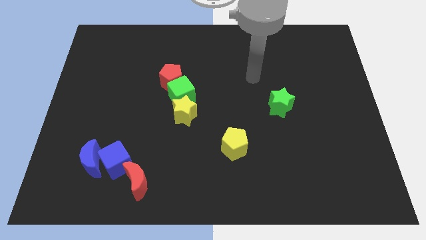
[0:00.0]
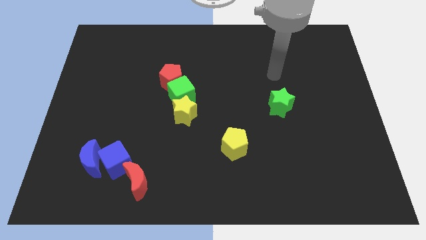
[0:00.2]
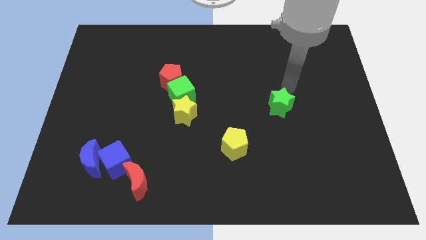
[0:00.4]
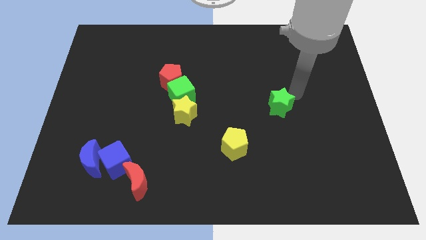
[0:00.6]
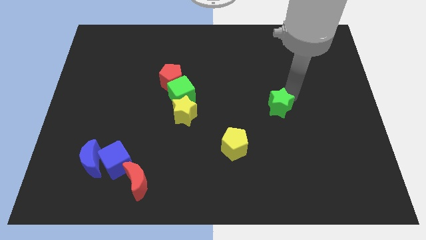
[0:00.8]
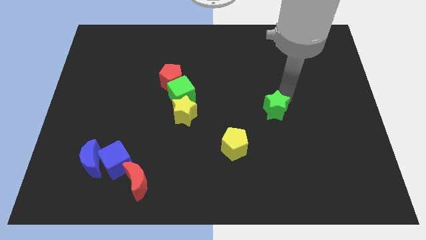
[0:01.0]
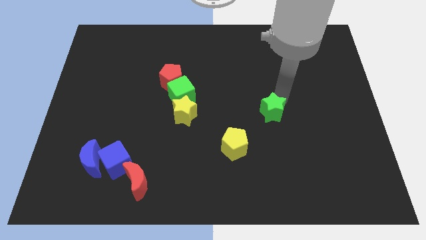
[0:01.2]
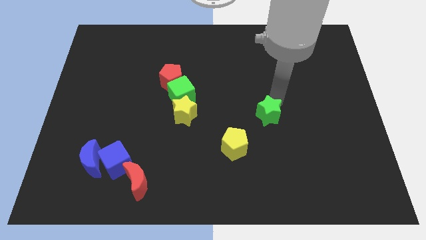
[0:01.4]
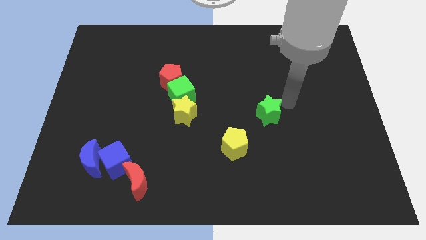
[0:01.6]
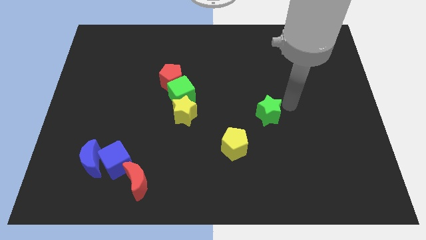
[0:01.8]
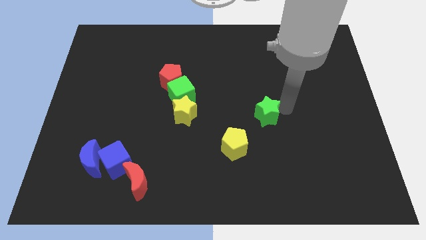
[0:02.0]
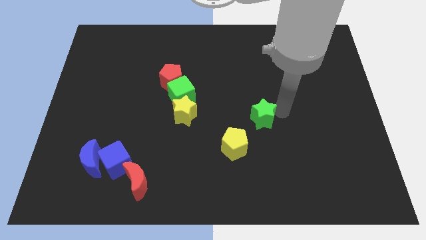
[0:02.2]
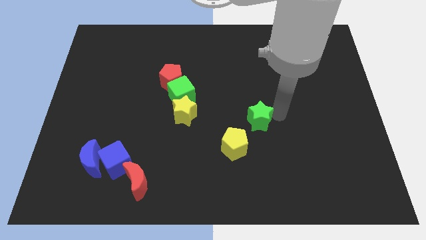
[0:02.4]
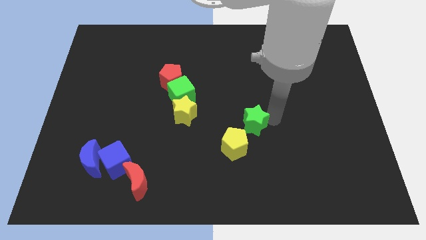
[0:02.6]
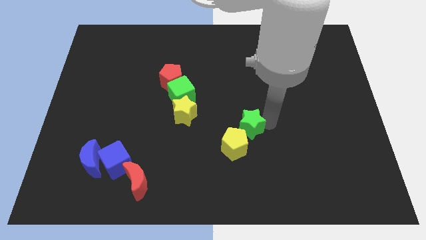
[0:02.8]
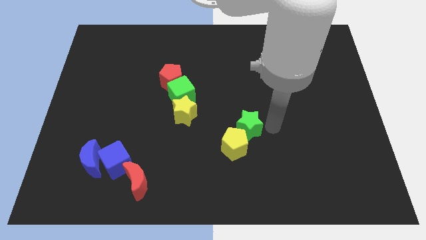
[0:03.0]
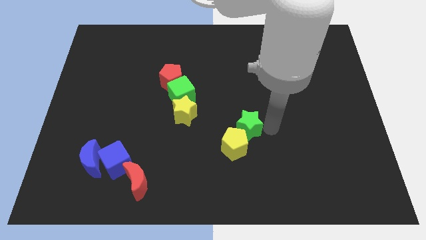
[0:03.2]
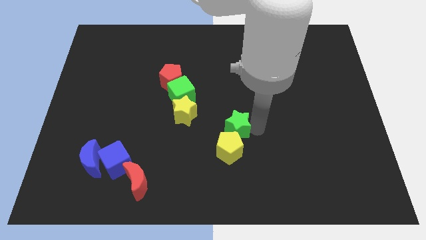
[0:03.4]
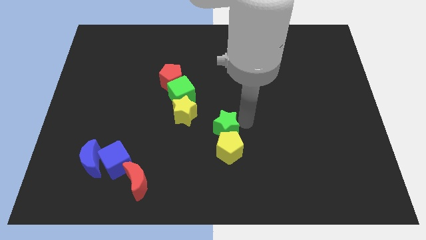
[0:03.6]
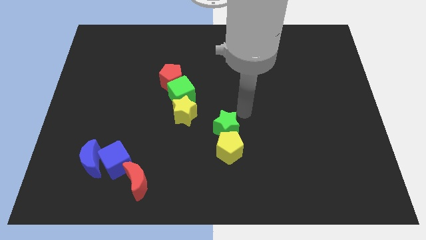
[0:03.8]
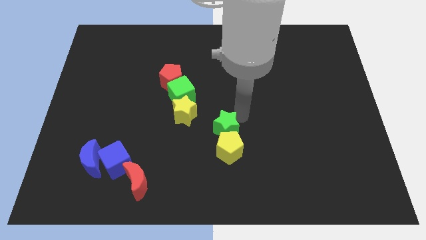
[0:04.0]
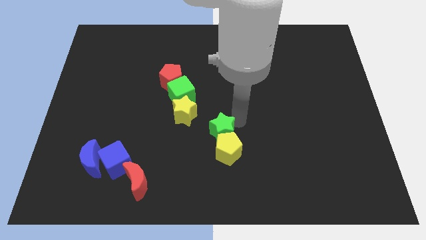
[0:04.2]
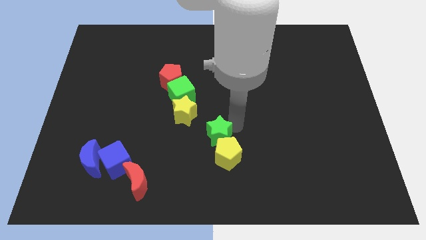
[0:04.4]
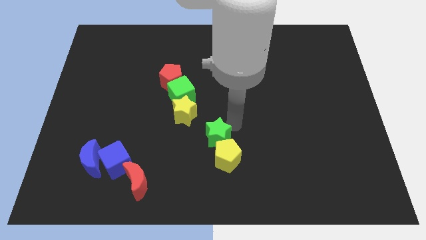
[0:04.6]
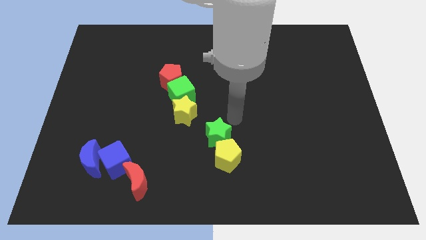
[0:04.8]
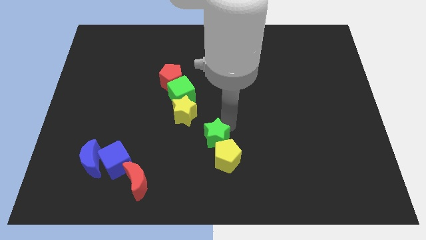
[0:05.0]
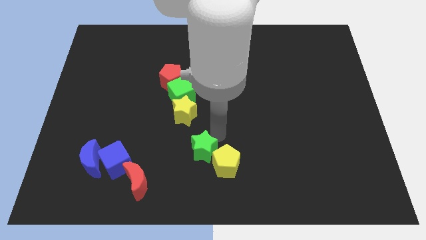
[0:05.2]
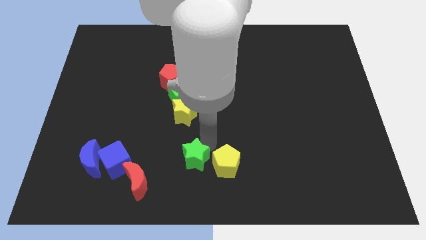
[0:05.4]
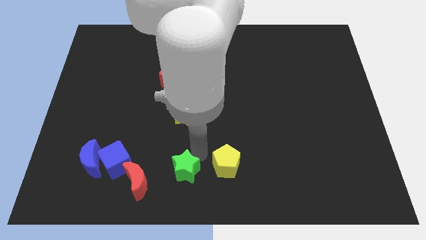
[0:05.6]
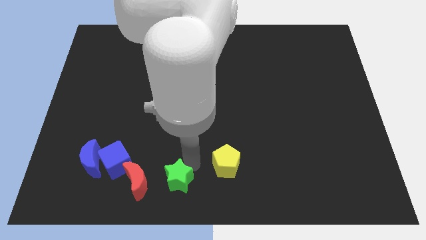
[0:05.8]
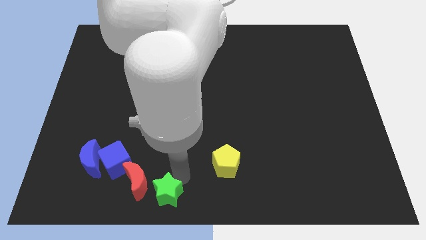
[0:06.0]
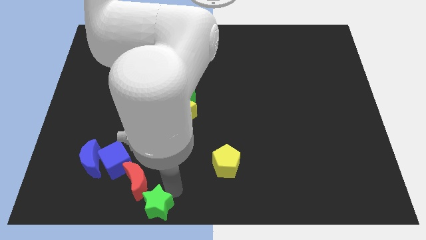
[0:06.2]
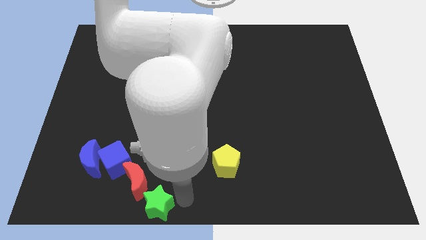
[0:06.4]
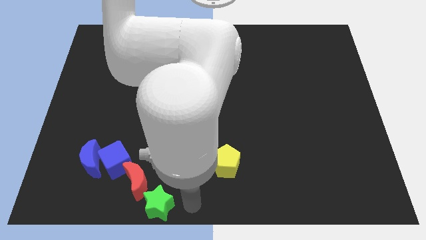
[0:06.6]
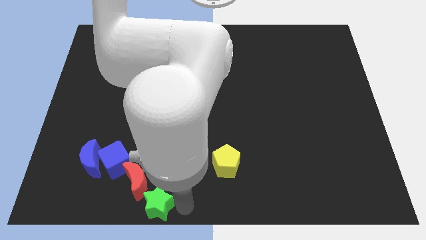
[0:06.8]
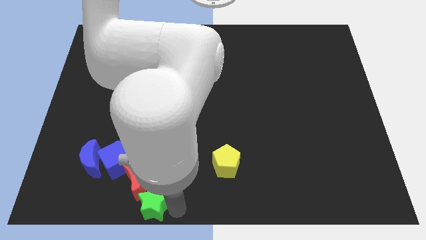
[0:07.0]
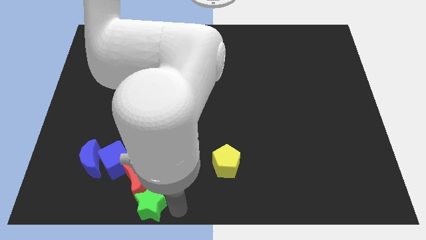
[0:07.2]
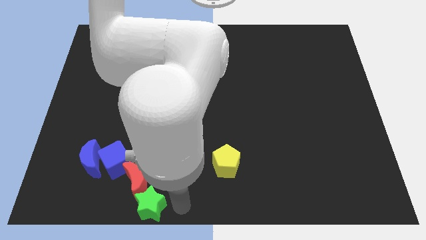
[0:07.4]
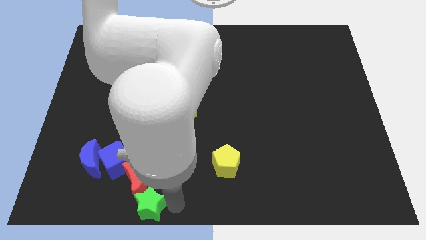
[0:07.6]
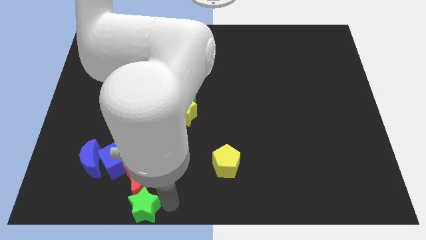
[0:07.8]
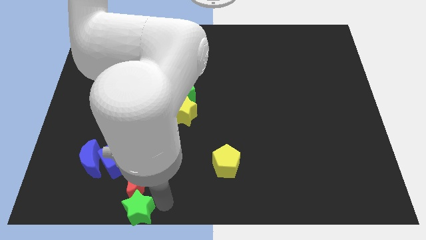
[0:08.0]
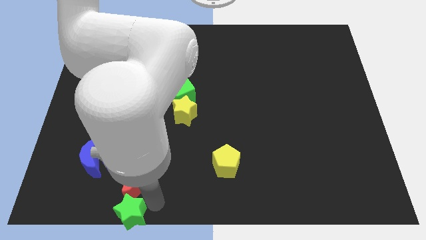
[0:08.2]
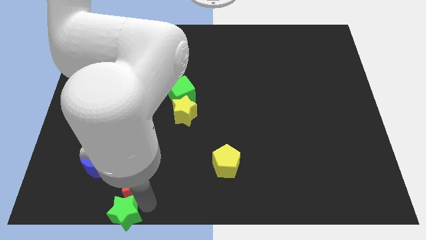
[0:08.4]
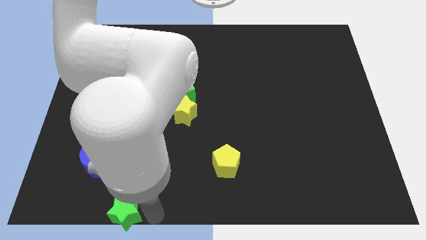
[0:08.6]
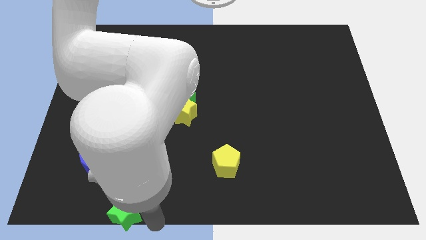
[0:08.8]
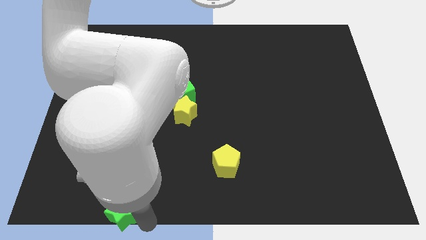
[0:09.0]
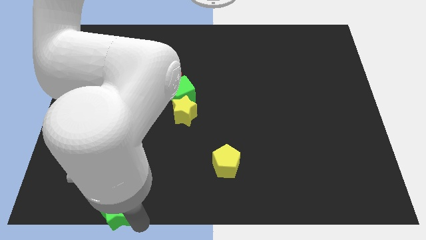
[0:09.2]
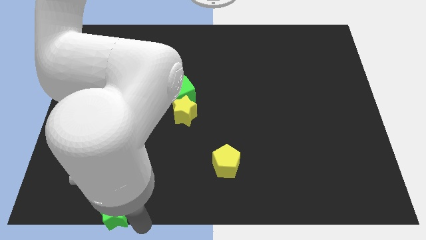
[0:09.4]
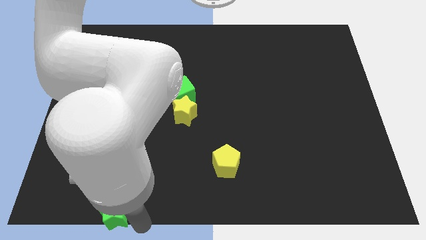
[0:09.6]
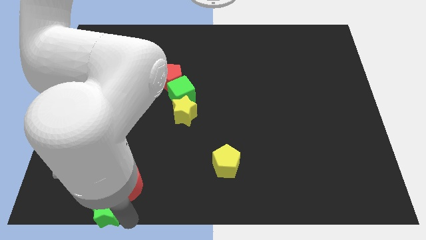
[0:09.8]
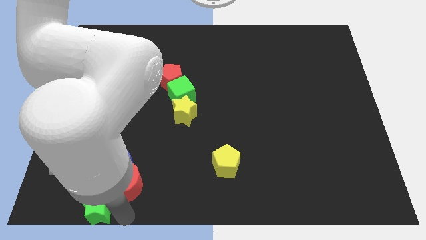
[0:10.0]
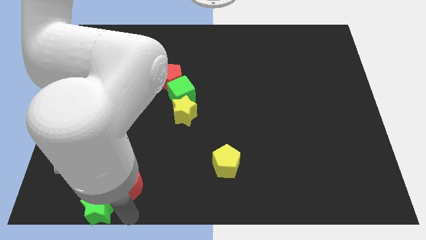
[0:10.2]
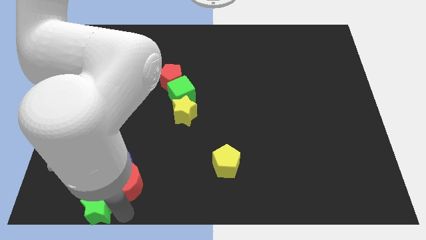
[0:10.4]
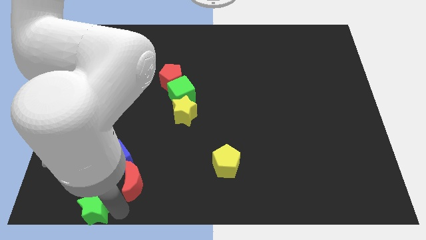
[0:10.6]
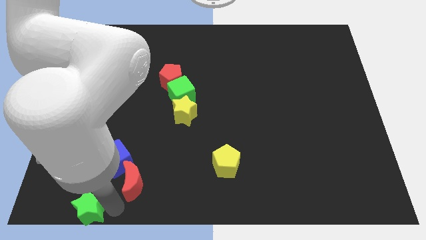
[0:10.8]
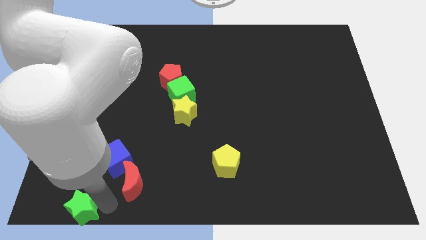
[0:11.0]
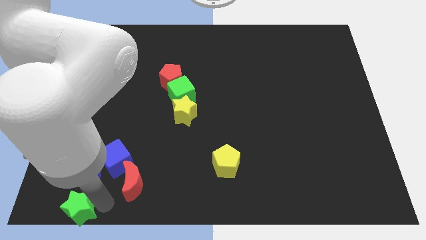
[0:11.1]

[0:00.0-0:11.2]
push the green star to the bottom left corner

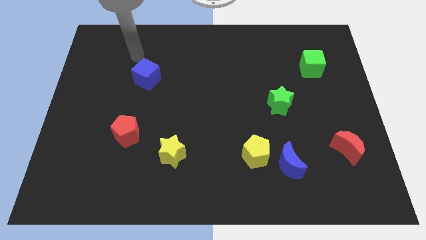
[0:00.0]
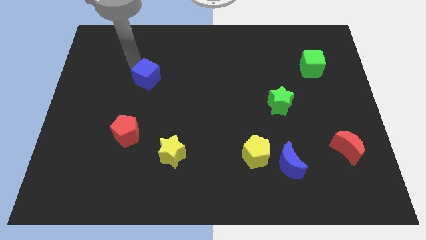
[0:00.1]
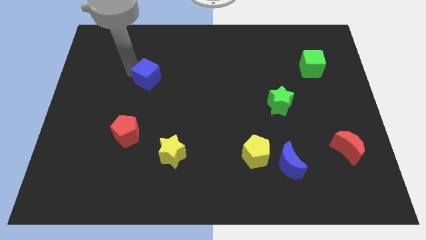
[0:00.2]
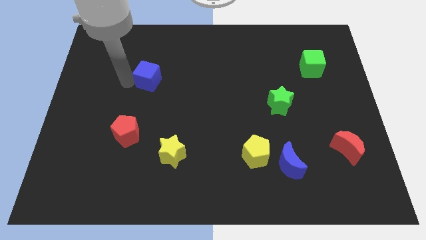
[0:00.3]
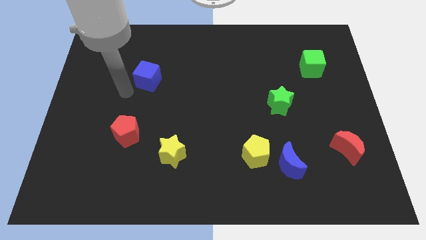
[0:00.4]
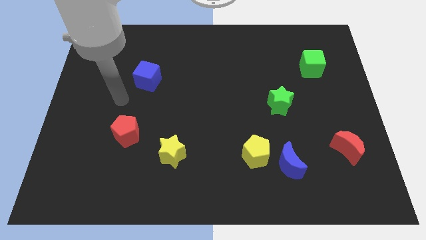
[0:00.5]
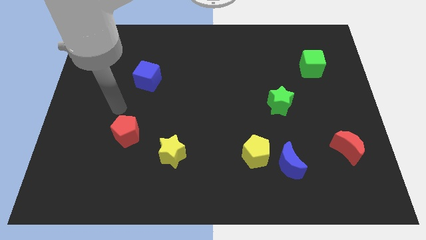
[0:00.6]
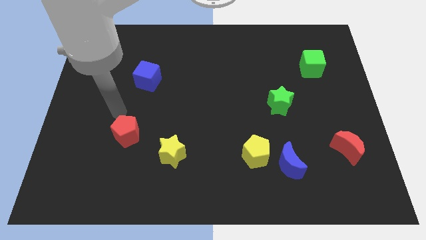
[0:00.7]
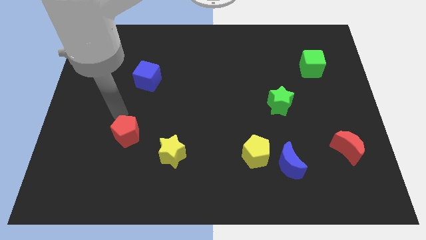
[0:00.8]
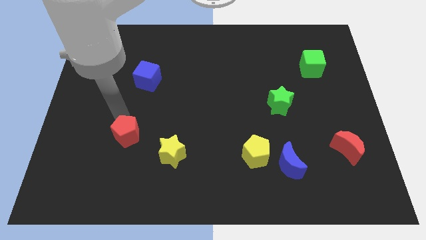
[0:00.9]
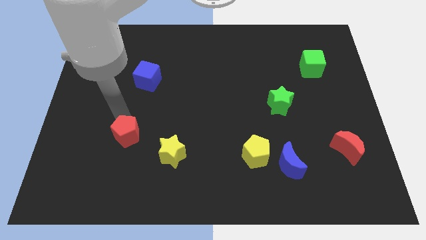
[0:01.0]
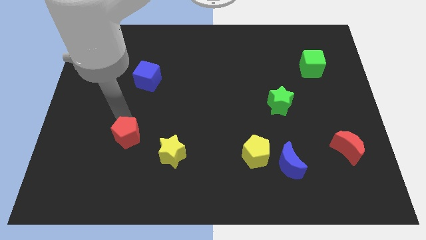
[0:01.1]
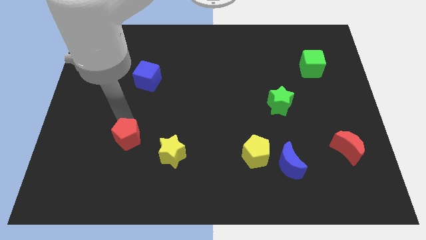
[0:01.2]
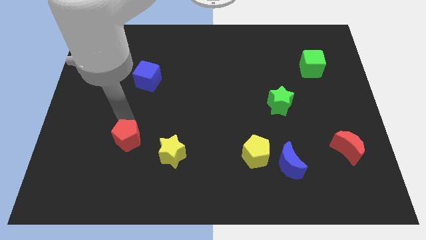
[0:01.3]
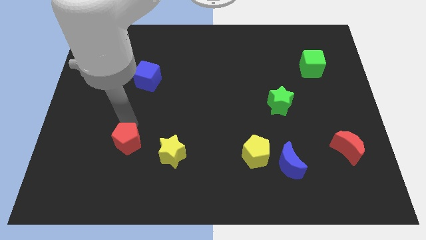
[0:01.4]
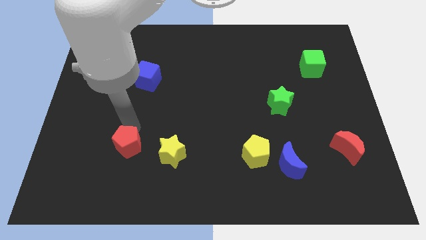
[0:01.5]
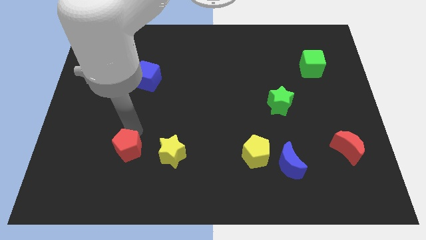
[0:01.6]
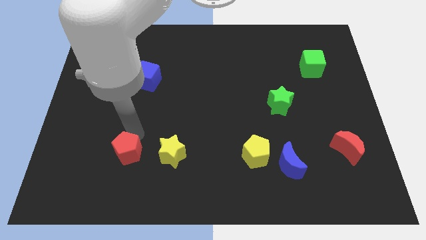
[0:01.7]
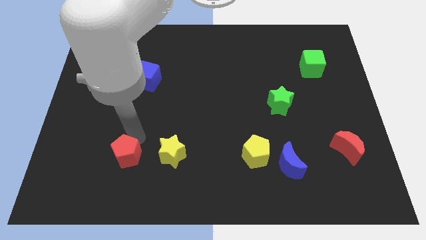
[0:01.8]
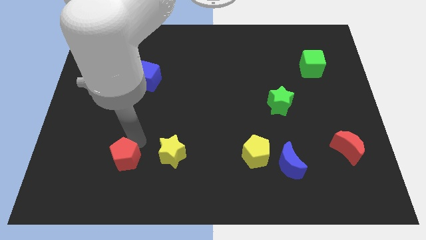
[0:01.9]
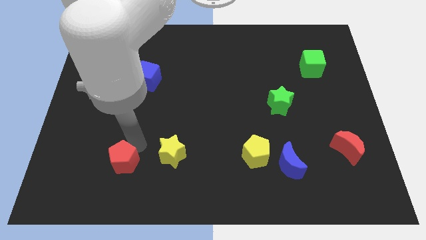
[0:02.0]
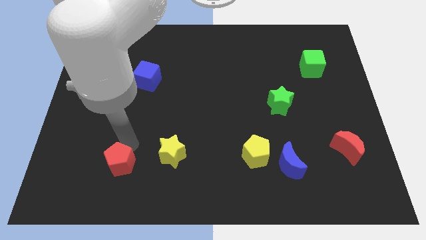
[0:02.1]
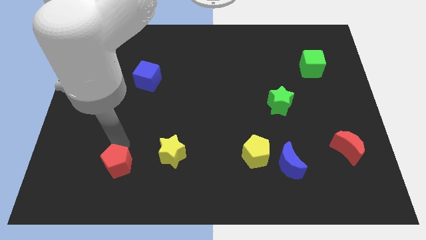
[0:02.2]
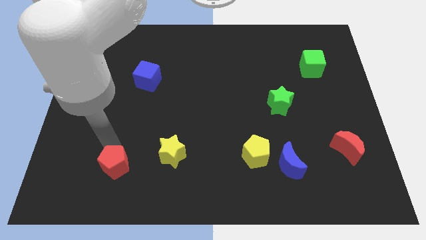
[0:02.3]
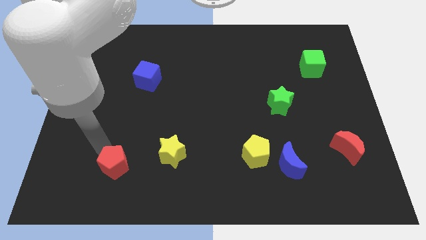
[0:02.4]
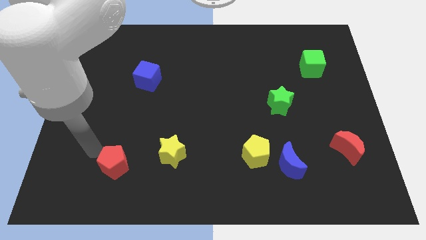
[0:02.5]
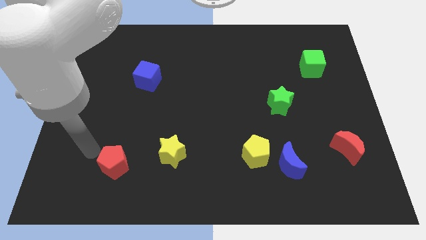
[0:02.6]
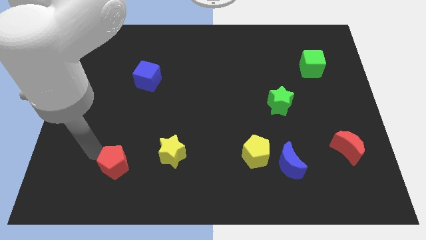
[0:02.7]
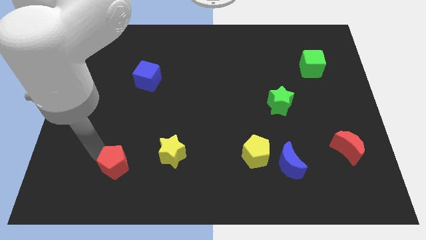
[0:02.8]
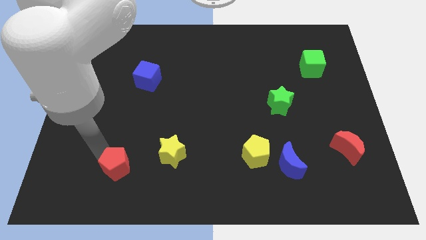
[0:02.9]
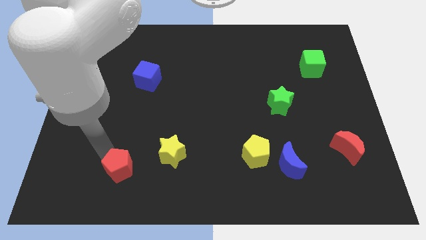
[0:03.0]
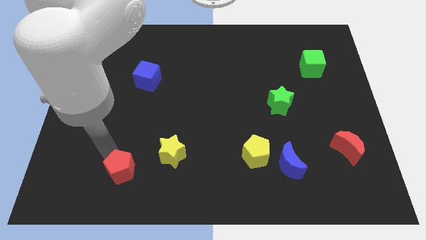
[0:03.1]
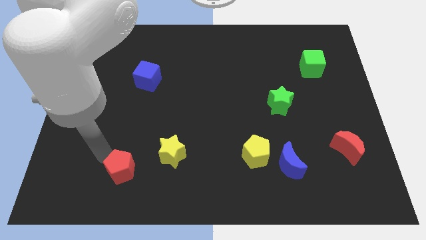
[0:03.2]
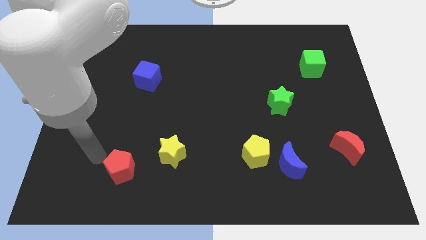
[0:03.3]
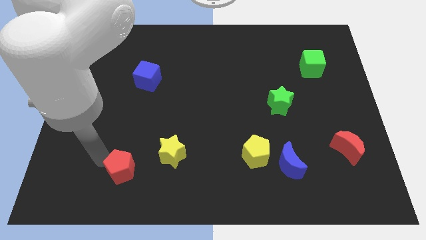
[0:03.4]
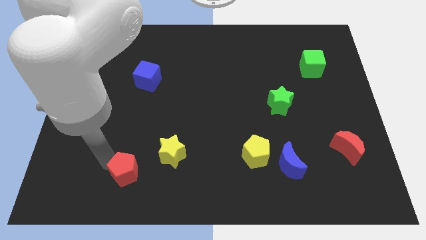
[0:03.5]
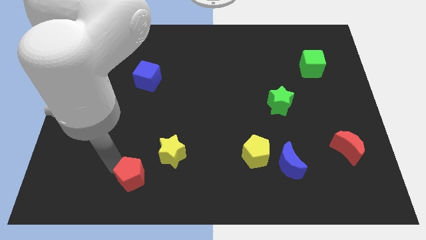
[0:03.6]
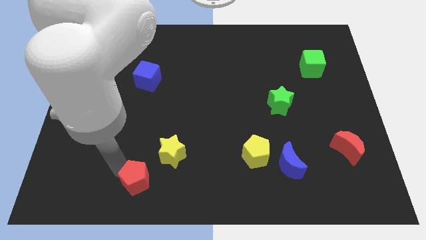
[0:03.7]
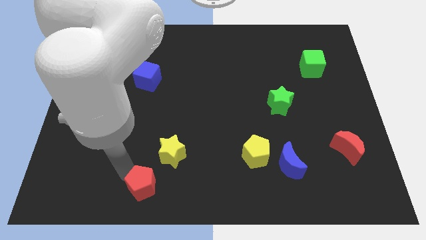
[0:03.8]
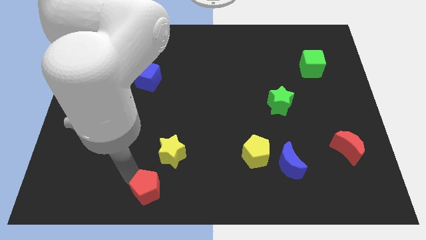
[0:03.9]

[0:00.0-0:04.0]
put the red pentagon to the bottom side
